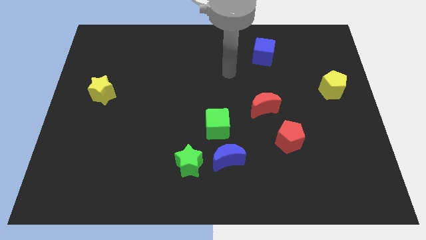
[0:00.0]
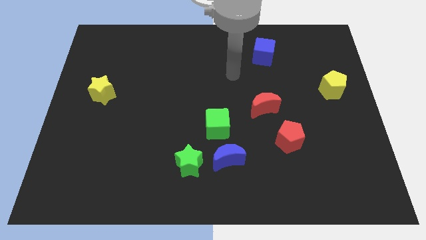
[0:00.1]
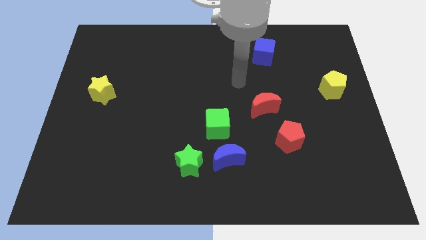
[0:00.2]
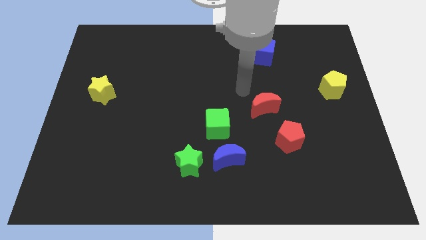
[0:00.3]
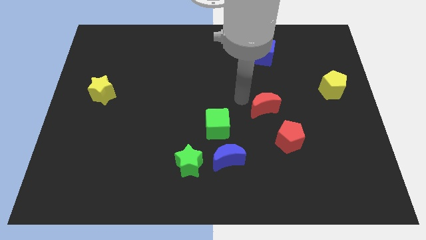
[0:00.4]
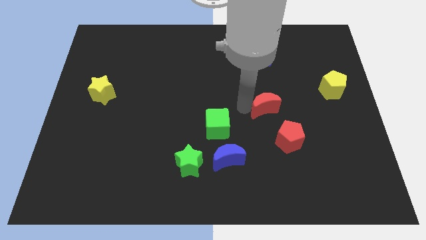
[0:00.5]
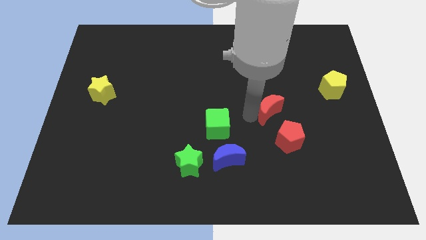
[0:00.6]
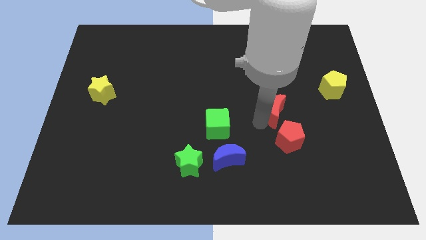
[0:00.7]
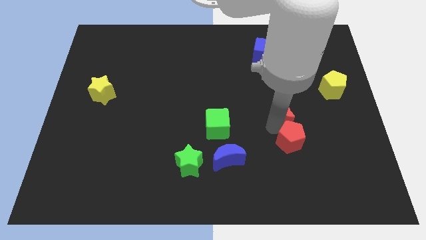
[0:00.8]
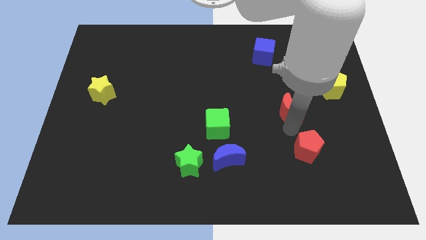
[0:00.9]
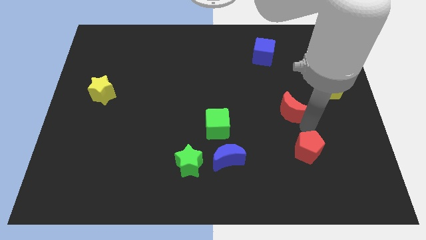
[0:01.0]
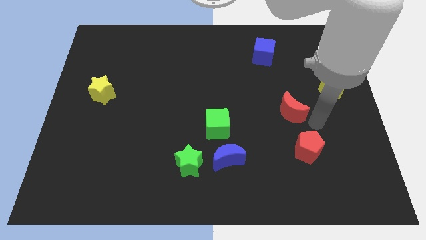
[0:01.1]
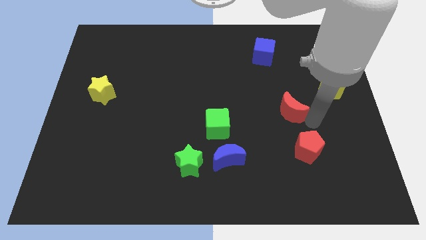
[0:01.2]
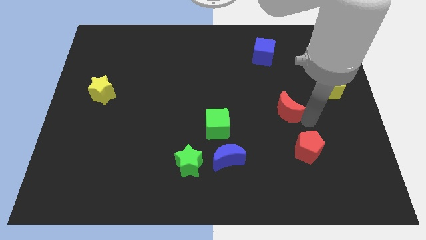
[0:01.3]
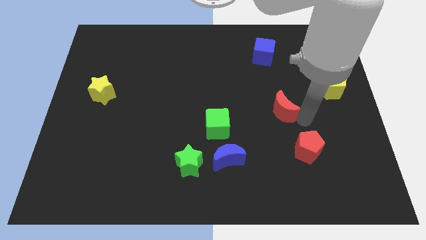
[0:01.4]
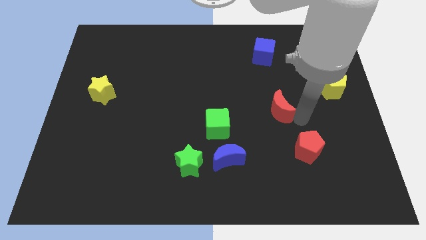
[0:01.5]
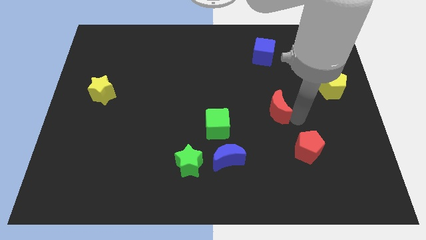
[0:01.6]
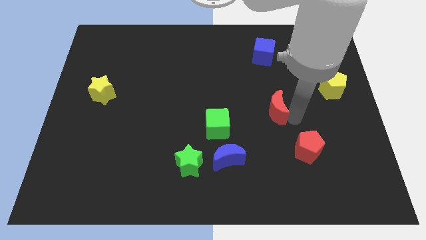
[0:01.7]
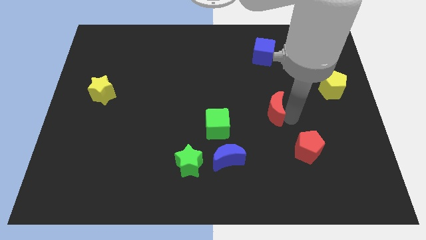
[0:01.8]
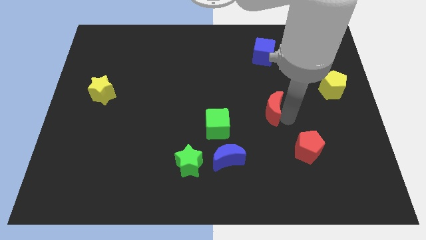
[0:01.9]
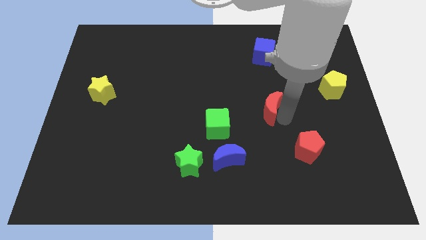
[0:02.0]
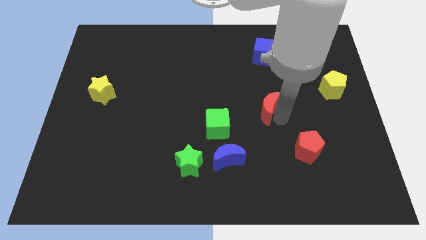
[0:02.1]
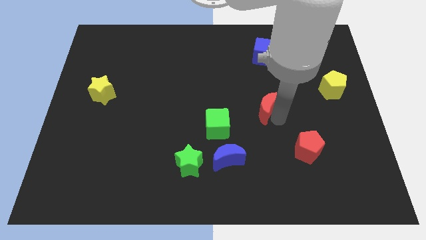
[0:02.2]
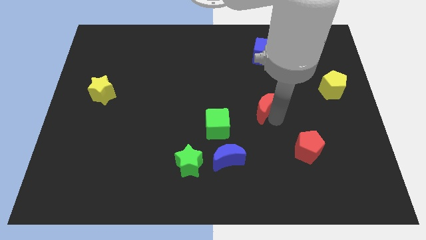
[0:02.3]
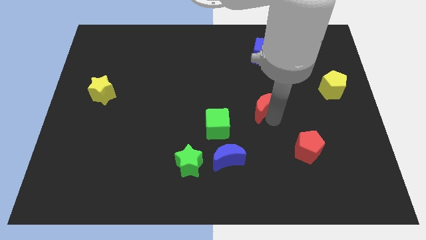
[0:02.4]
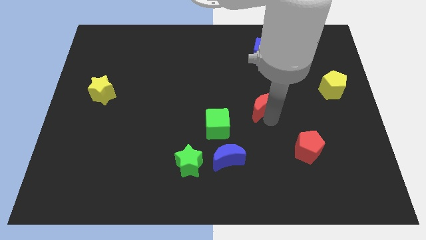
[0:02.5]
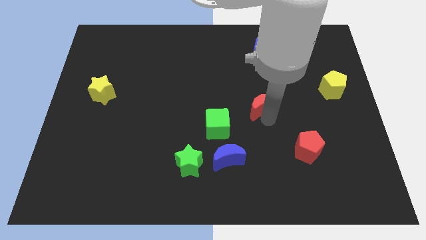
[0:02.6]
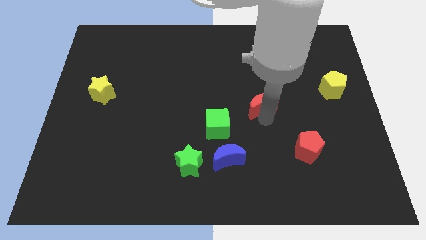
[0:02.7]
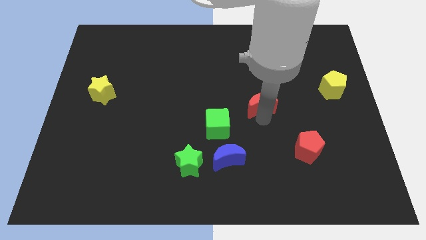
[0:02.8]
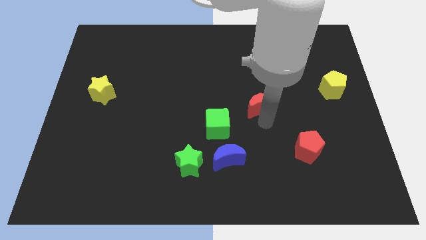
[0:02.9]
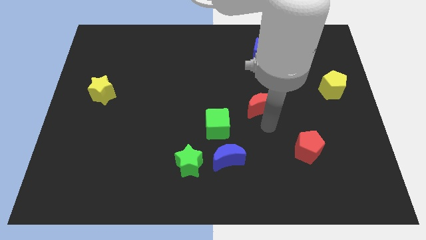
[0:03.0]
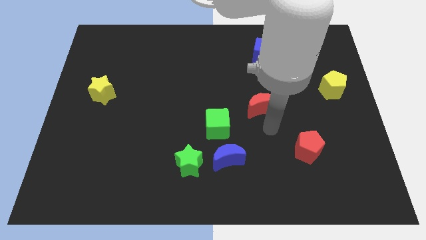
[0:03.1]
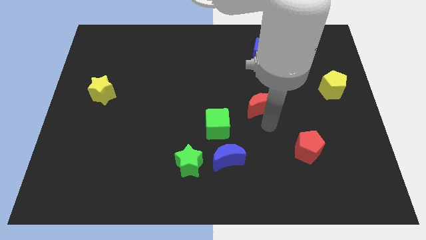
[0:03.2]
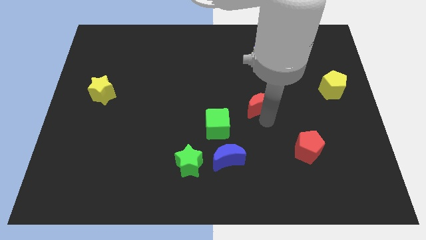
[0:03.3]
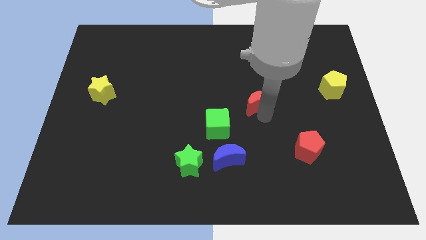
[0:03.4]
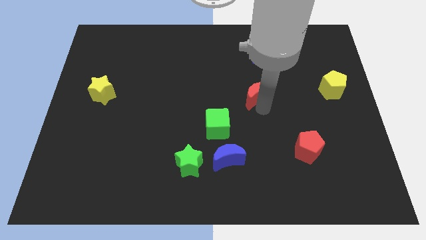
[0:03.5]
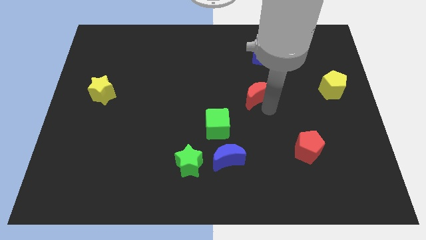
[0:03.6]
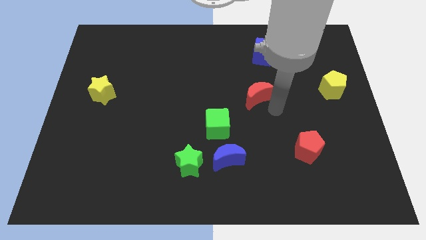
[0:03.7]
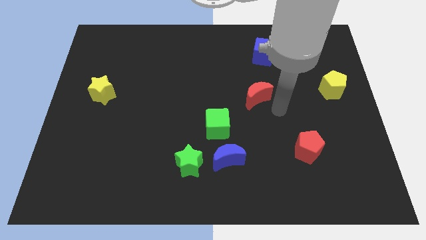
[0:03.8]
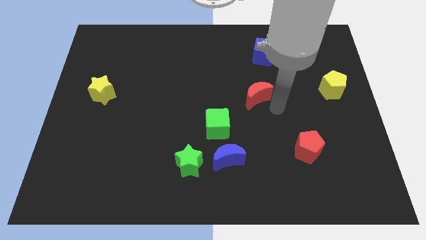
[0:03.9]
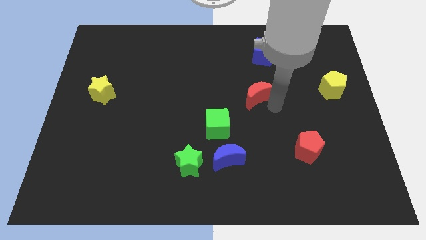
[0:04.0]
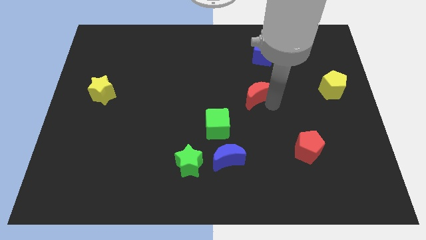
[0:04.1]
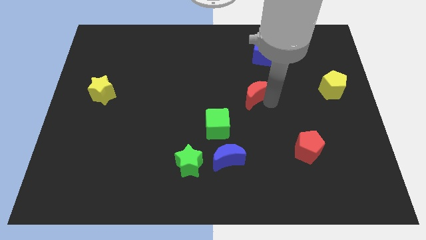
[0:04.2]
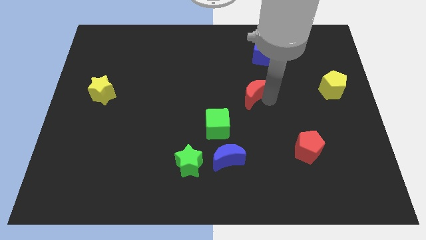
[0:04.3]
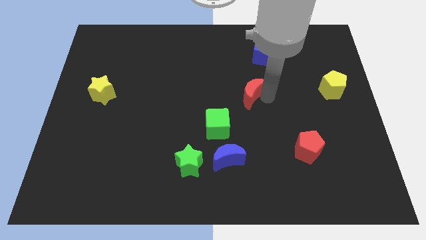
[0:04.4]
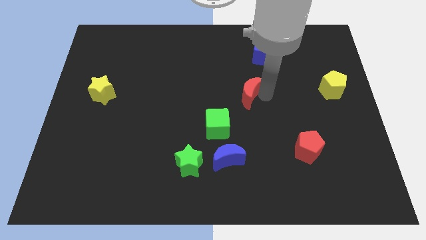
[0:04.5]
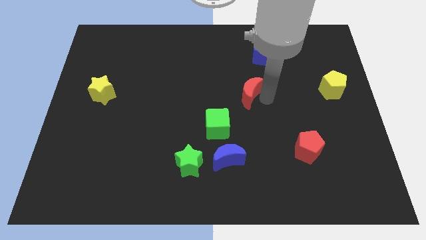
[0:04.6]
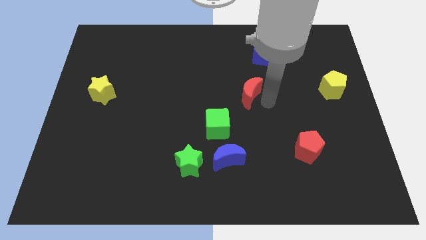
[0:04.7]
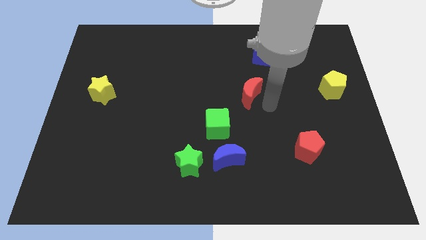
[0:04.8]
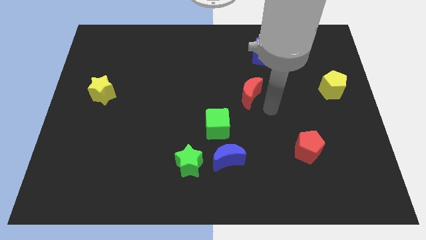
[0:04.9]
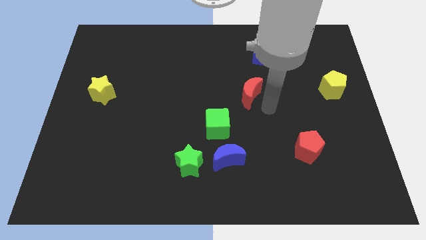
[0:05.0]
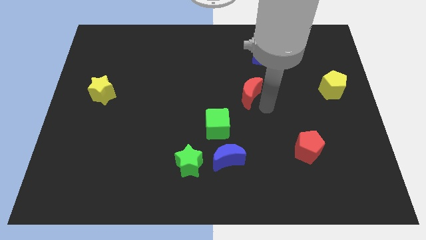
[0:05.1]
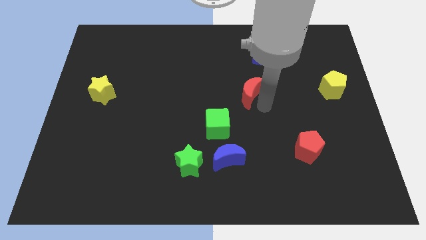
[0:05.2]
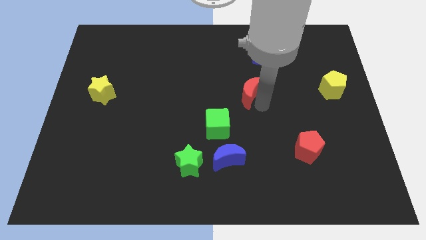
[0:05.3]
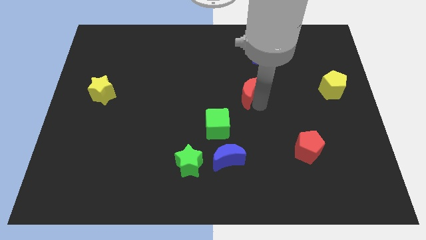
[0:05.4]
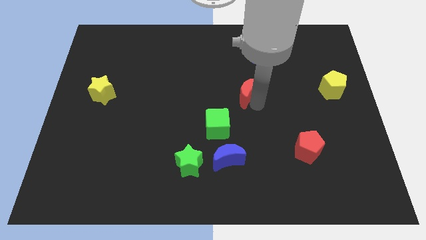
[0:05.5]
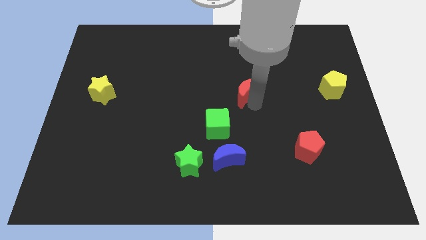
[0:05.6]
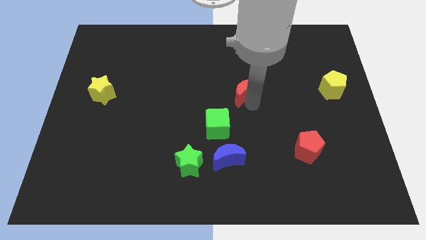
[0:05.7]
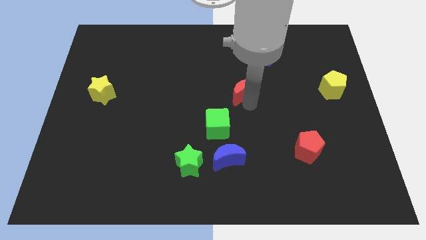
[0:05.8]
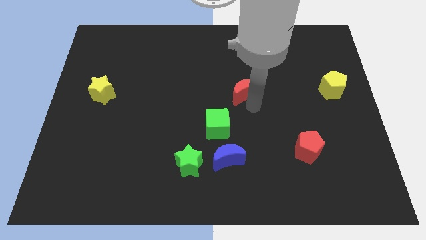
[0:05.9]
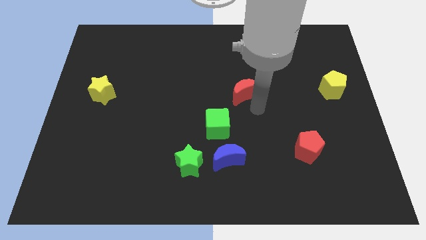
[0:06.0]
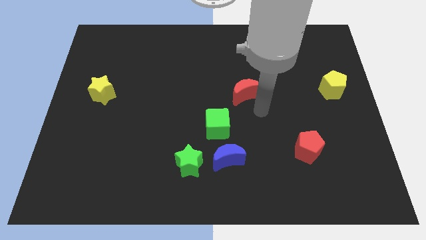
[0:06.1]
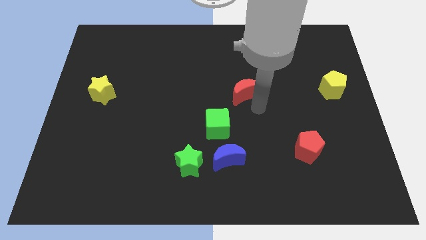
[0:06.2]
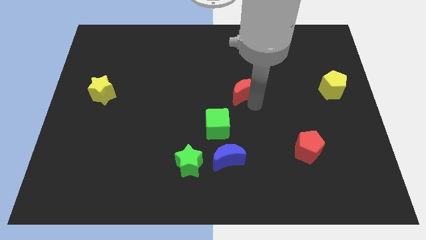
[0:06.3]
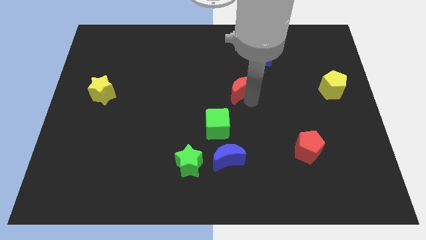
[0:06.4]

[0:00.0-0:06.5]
slightly push the red moon up and to the left

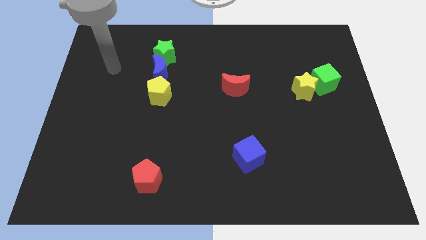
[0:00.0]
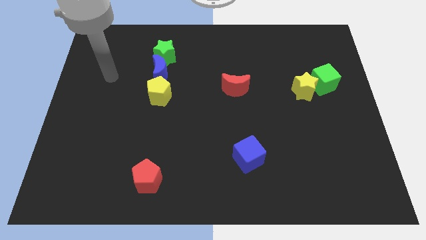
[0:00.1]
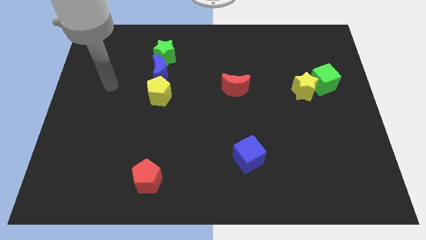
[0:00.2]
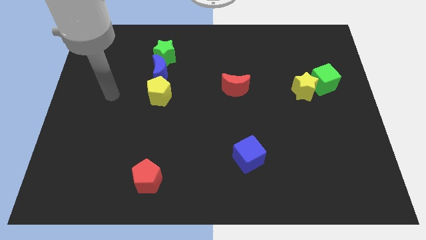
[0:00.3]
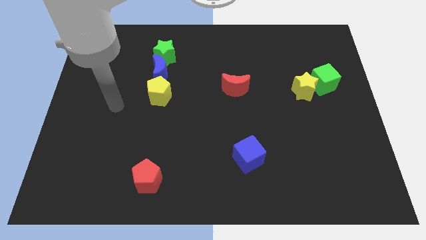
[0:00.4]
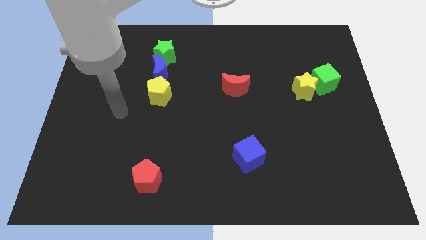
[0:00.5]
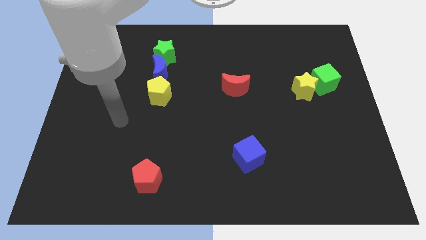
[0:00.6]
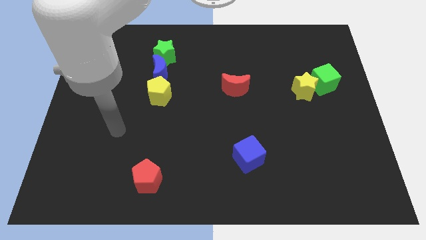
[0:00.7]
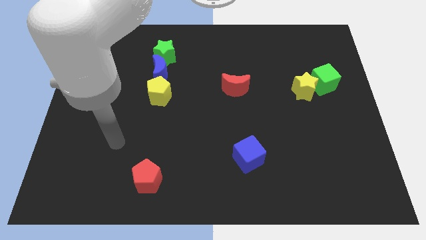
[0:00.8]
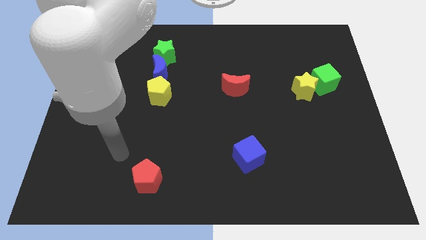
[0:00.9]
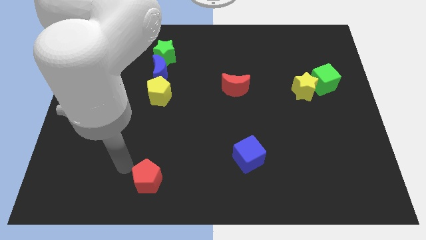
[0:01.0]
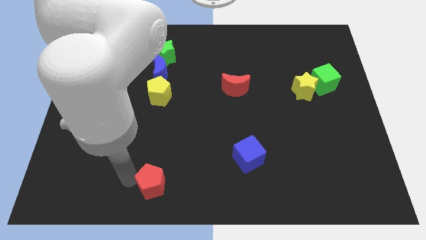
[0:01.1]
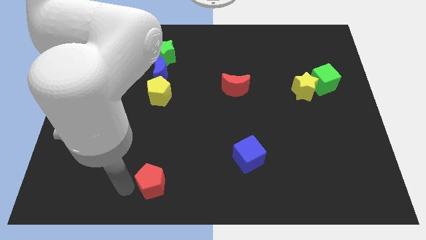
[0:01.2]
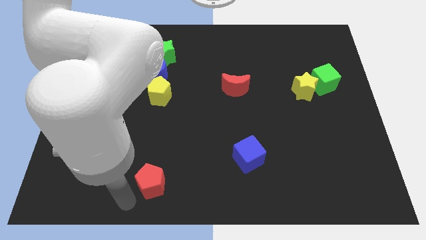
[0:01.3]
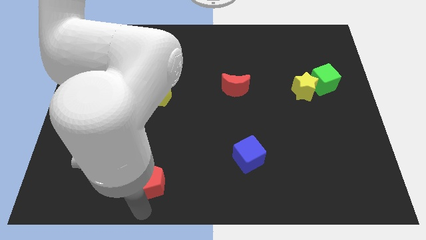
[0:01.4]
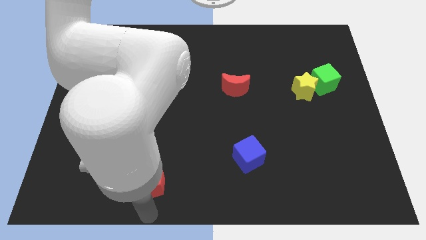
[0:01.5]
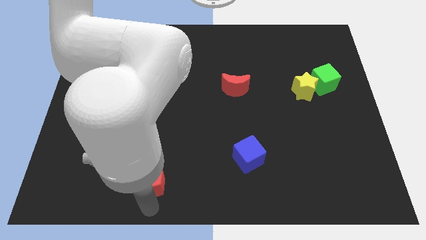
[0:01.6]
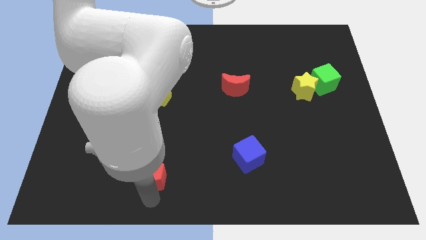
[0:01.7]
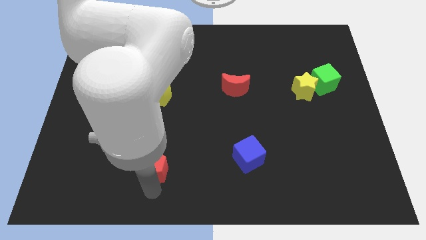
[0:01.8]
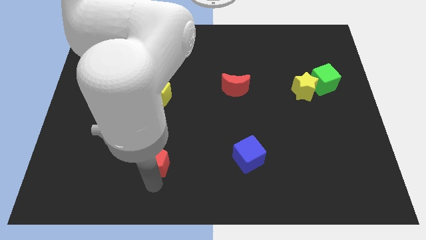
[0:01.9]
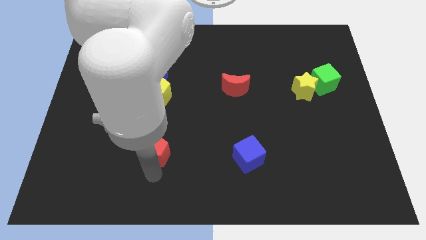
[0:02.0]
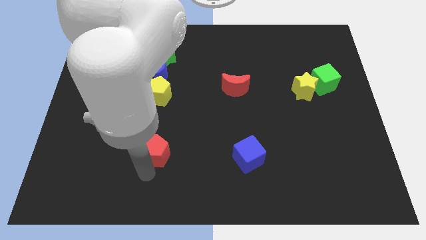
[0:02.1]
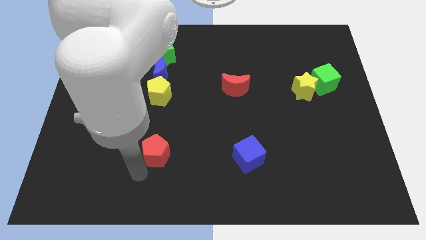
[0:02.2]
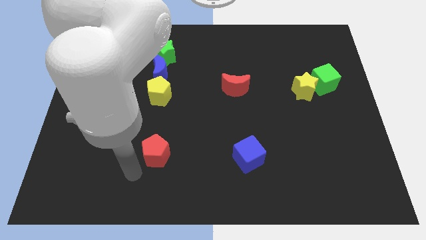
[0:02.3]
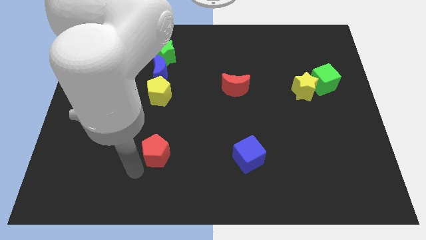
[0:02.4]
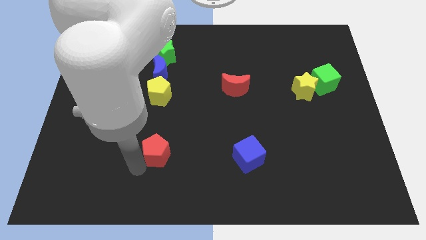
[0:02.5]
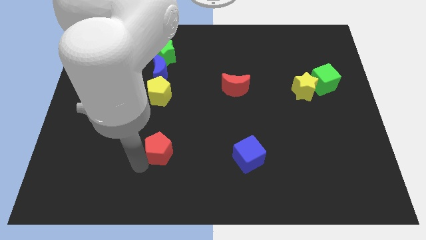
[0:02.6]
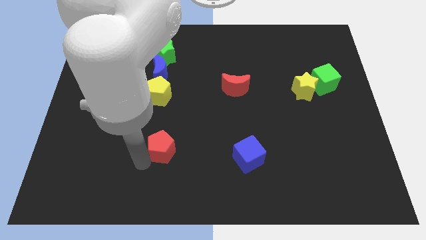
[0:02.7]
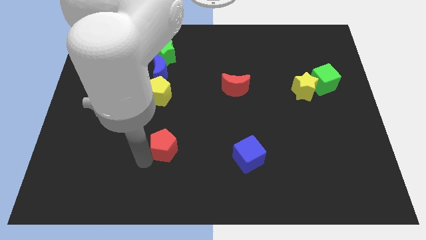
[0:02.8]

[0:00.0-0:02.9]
slightly move the red pentagon up and right diagonally
